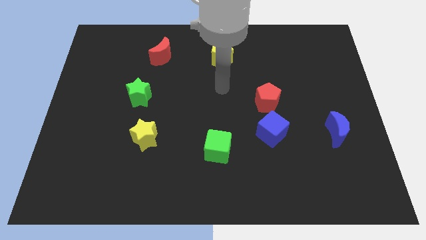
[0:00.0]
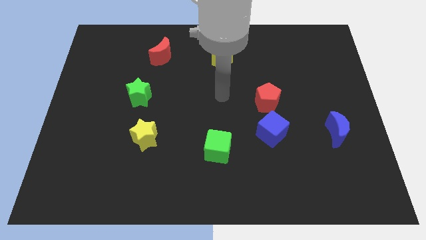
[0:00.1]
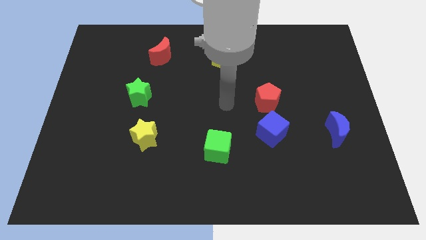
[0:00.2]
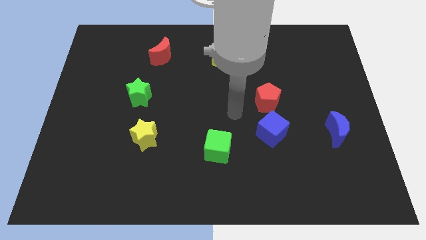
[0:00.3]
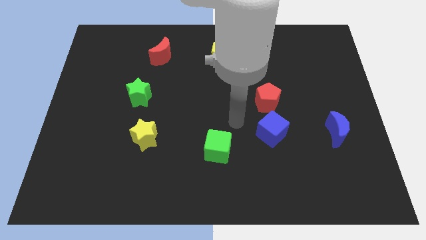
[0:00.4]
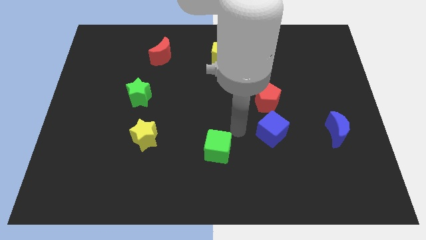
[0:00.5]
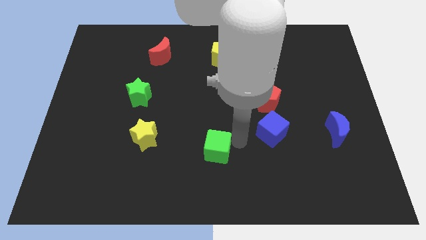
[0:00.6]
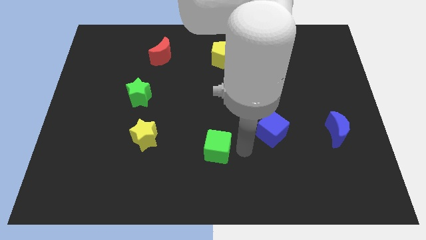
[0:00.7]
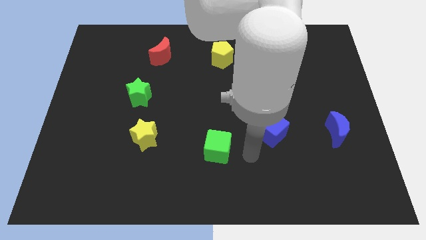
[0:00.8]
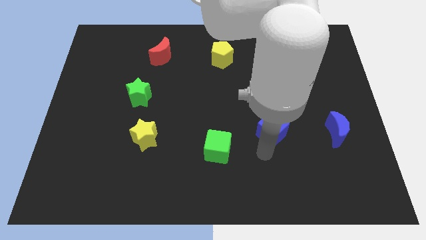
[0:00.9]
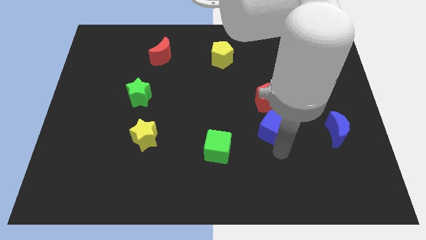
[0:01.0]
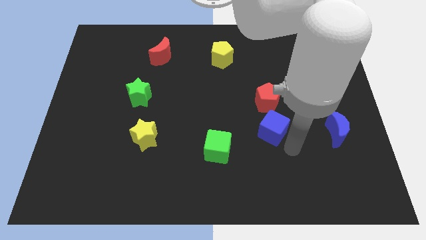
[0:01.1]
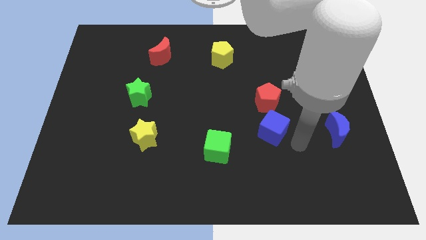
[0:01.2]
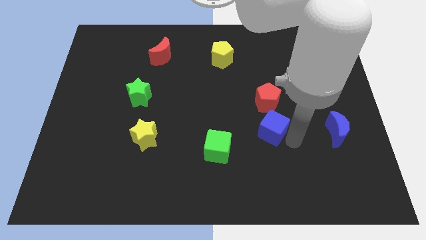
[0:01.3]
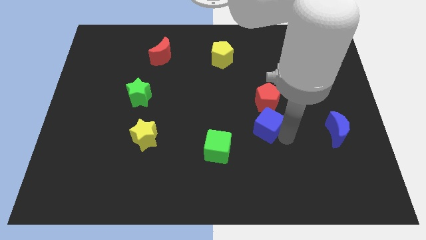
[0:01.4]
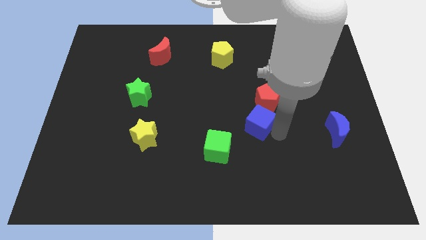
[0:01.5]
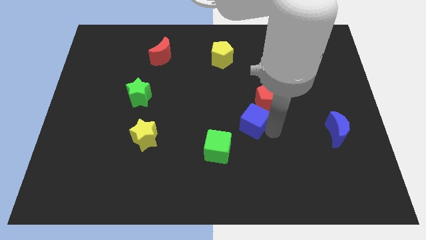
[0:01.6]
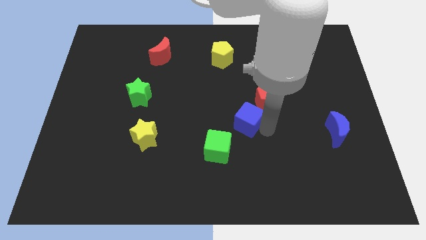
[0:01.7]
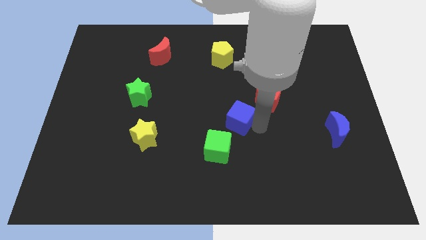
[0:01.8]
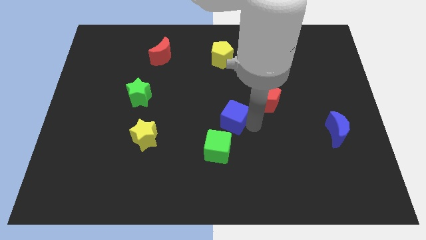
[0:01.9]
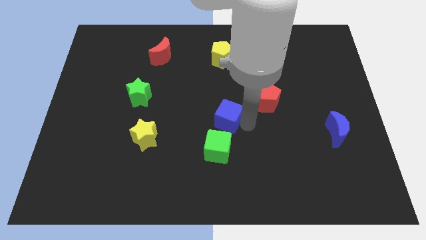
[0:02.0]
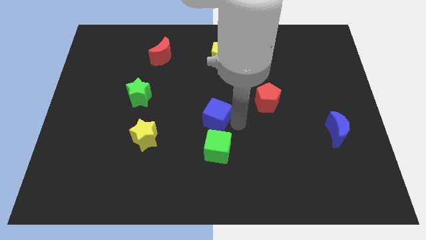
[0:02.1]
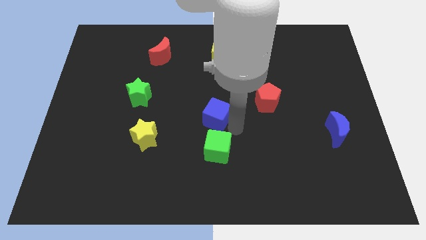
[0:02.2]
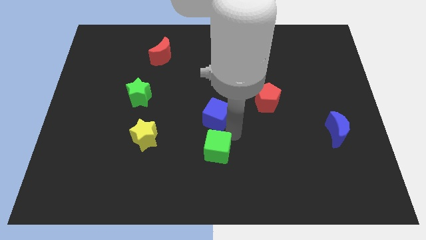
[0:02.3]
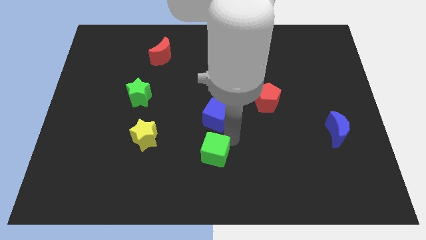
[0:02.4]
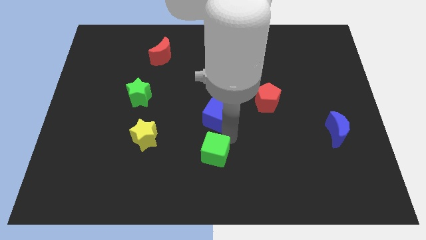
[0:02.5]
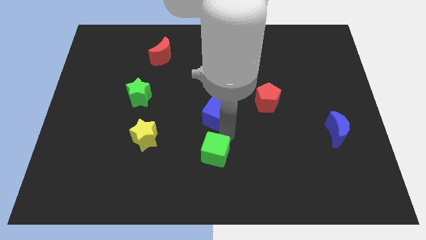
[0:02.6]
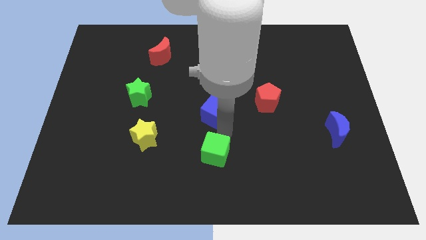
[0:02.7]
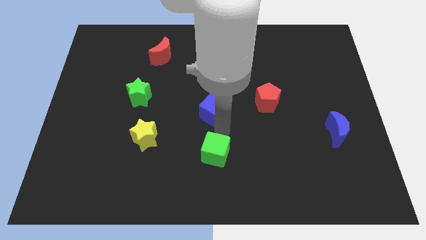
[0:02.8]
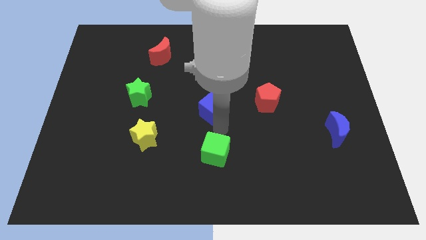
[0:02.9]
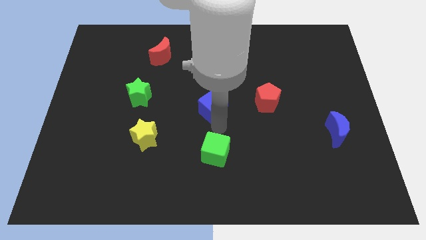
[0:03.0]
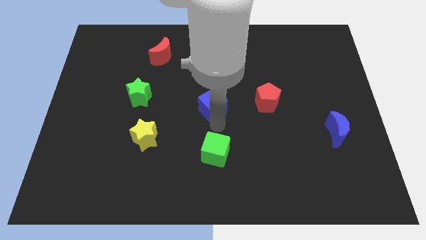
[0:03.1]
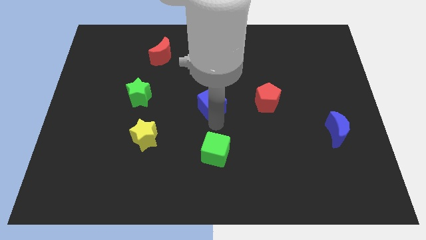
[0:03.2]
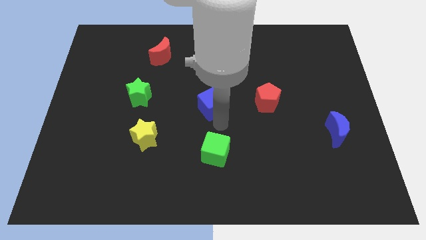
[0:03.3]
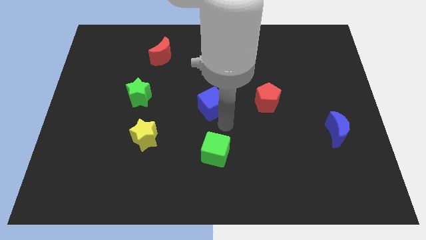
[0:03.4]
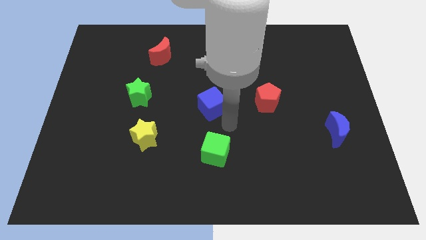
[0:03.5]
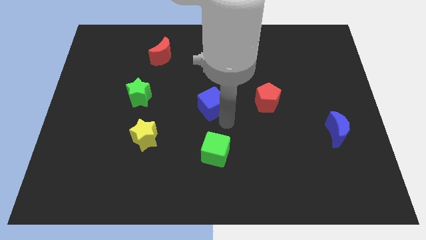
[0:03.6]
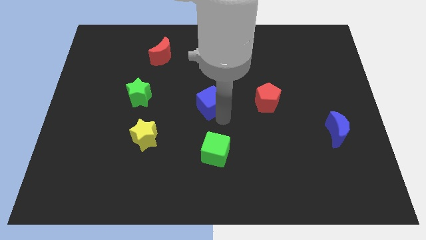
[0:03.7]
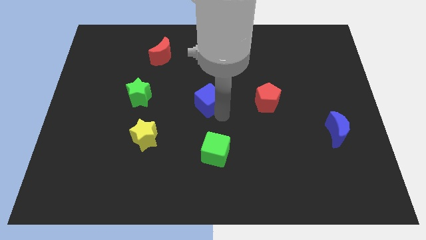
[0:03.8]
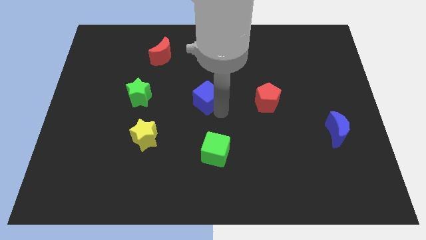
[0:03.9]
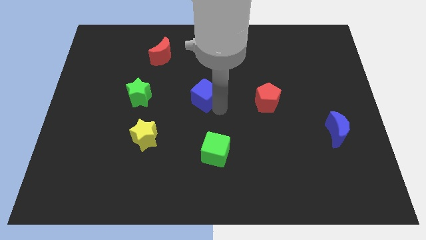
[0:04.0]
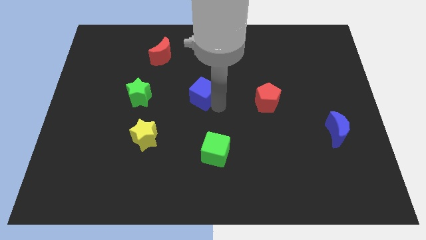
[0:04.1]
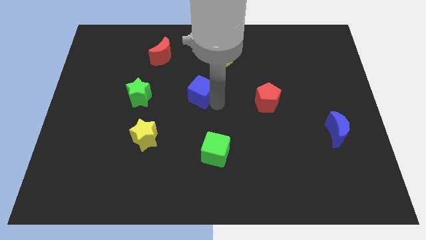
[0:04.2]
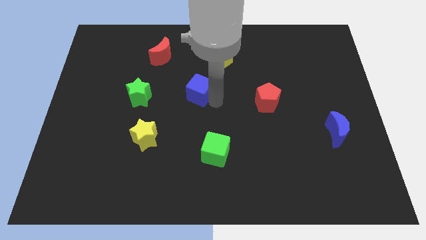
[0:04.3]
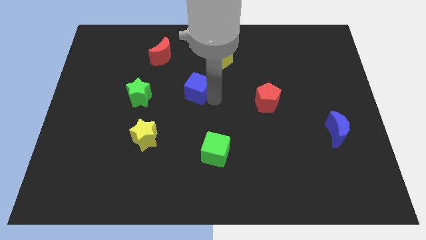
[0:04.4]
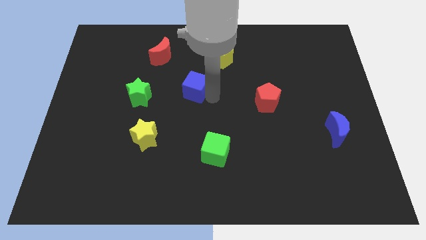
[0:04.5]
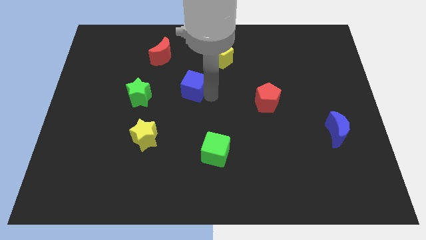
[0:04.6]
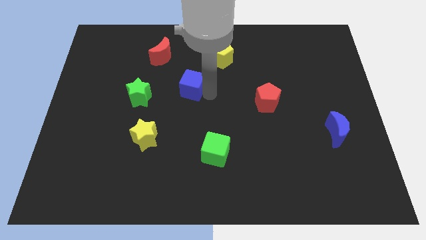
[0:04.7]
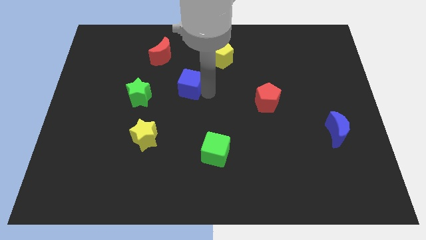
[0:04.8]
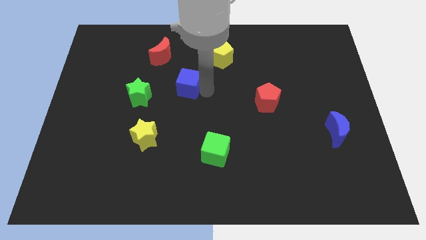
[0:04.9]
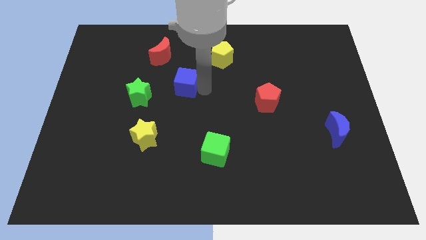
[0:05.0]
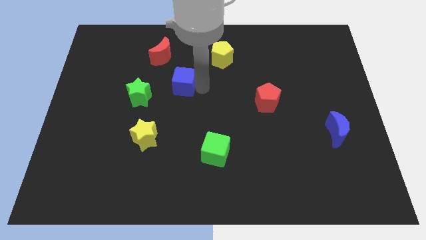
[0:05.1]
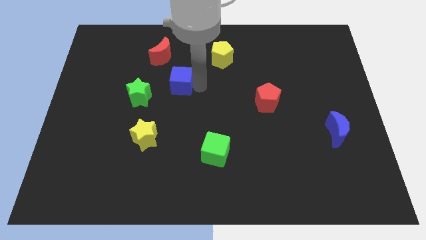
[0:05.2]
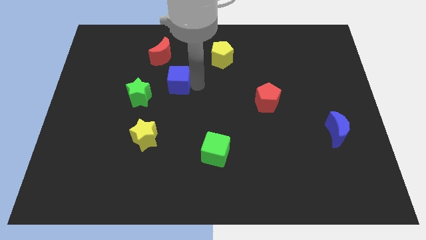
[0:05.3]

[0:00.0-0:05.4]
move the blue cube to the bottom side of the red moon

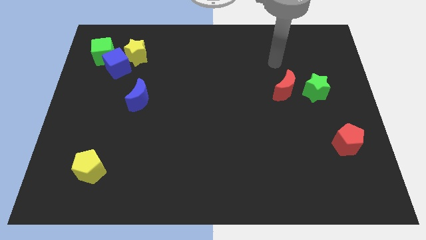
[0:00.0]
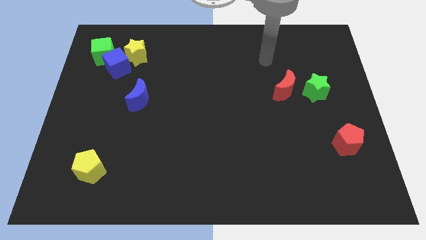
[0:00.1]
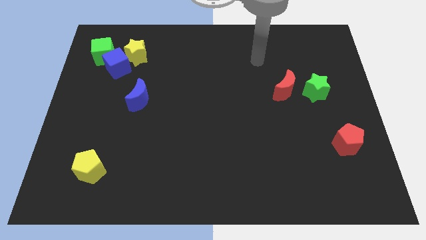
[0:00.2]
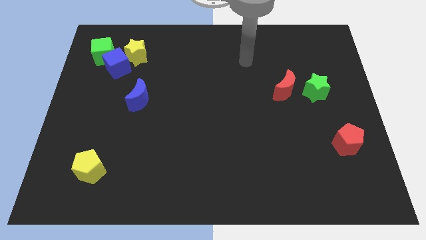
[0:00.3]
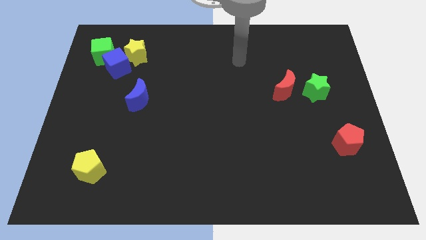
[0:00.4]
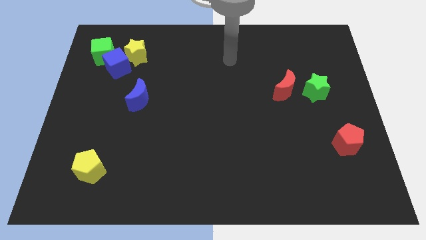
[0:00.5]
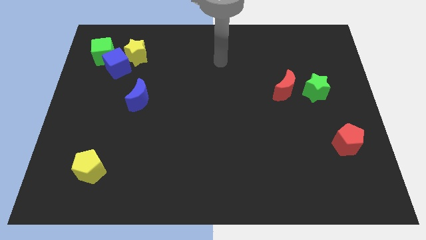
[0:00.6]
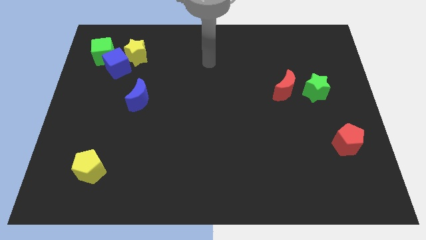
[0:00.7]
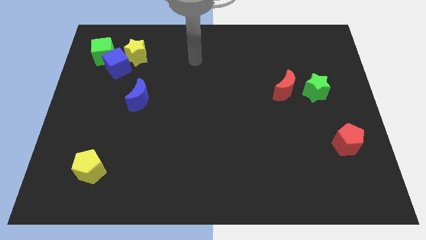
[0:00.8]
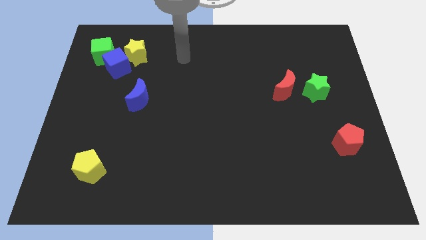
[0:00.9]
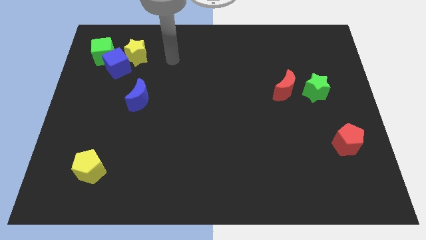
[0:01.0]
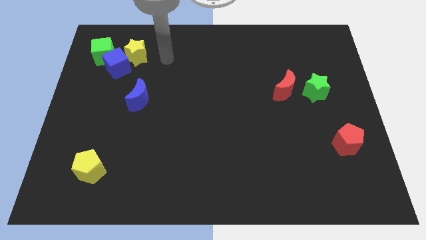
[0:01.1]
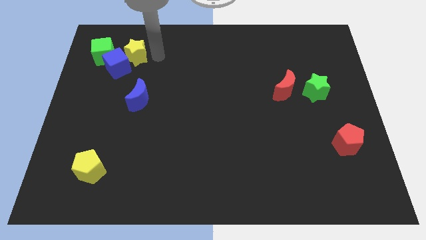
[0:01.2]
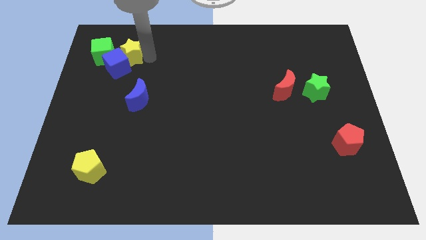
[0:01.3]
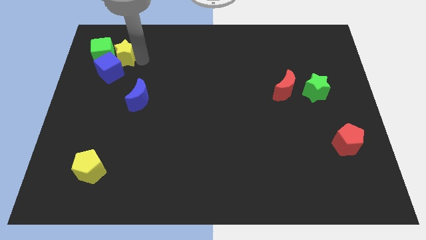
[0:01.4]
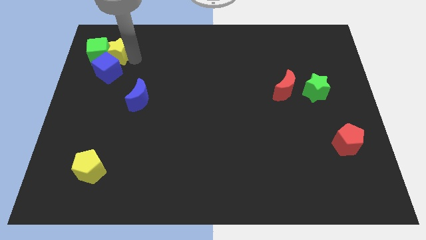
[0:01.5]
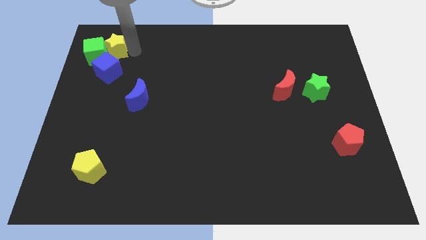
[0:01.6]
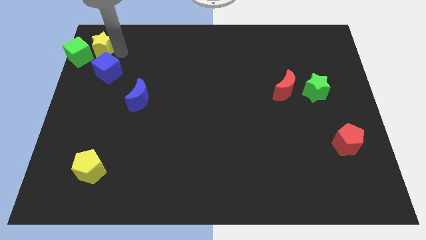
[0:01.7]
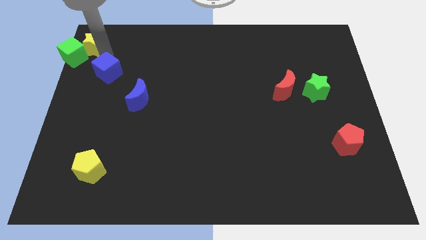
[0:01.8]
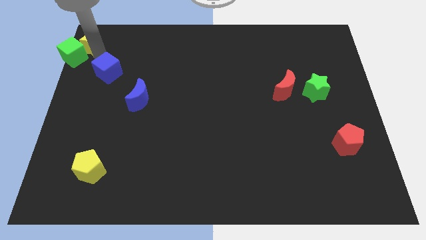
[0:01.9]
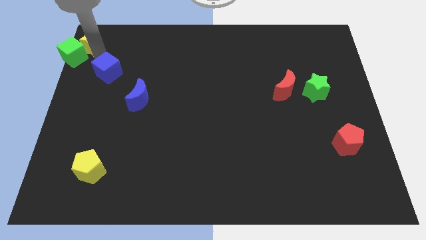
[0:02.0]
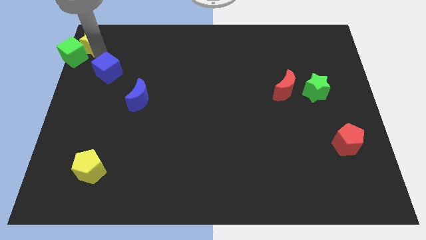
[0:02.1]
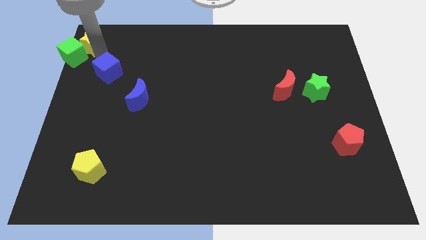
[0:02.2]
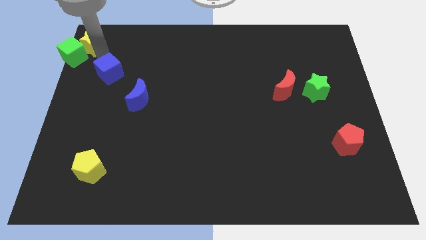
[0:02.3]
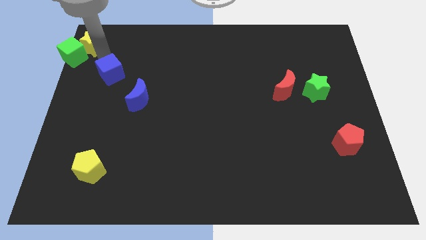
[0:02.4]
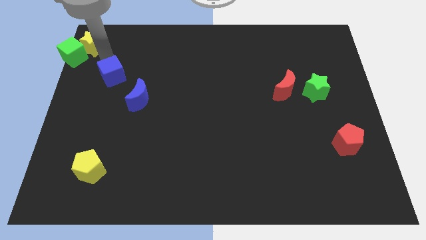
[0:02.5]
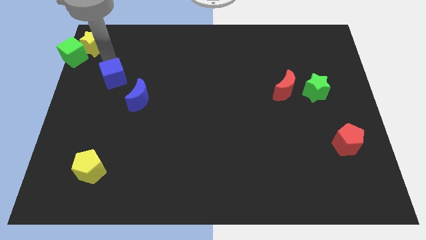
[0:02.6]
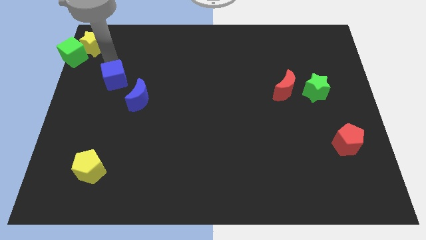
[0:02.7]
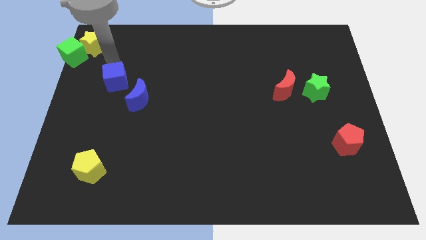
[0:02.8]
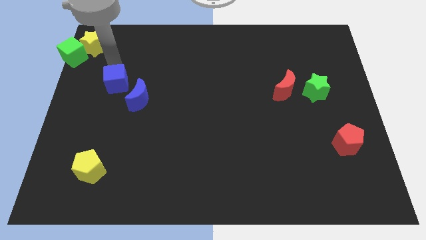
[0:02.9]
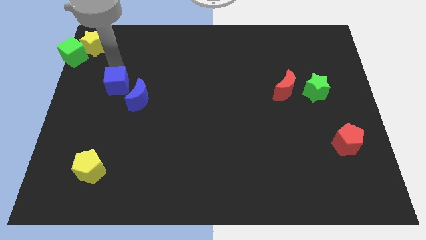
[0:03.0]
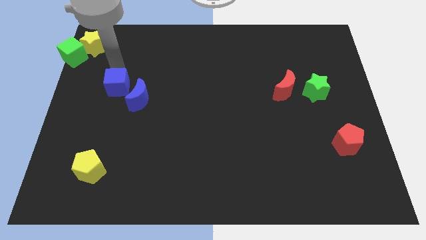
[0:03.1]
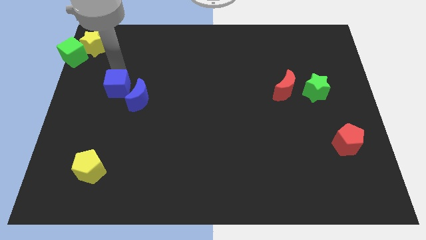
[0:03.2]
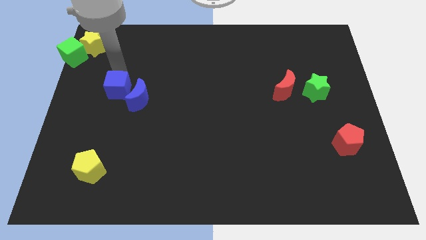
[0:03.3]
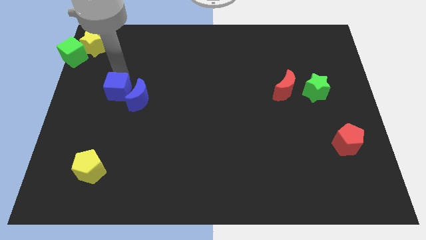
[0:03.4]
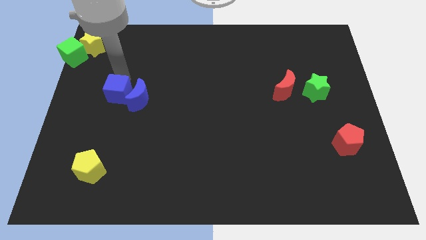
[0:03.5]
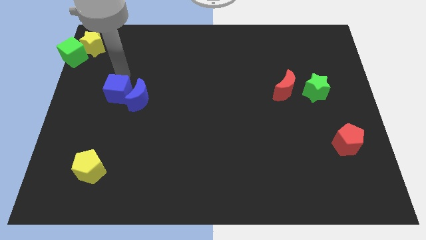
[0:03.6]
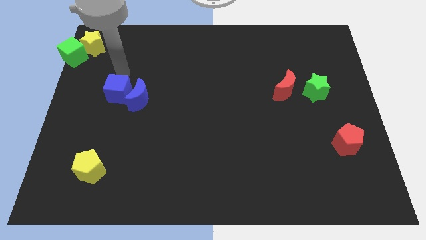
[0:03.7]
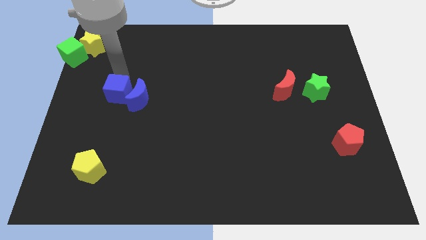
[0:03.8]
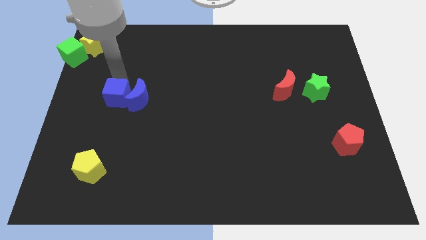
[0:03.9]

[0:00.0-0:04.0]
push the blue cube diagonally down and to the left of the blue moon
